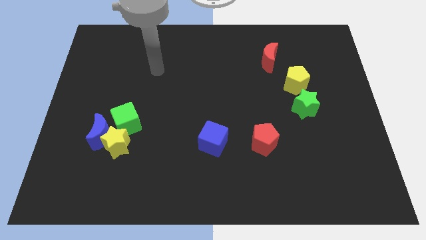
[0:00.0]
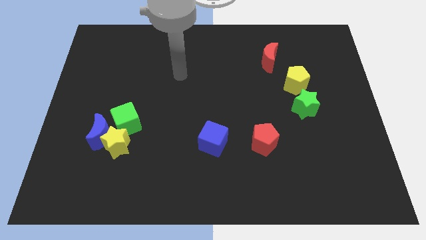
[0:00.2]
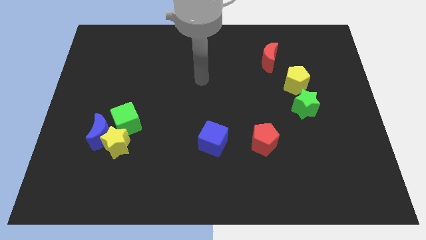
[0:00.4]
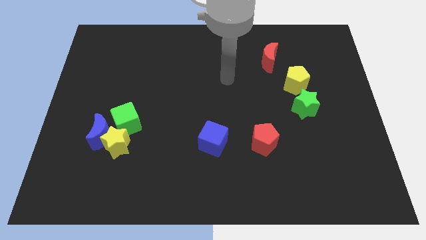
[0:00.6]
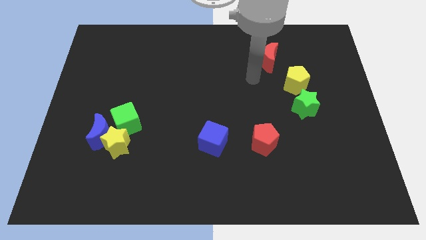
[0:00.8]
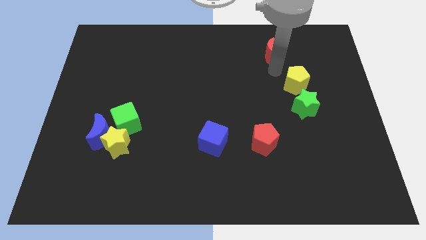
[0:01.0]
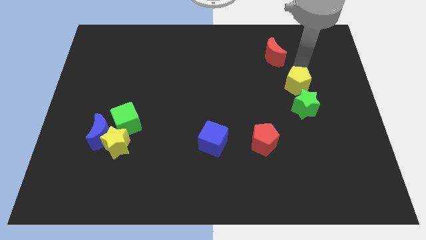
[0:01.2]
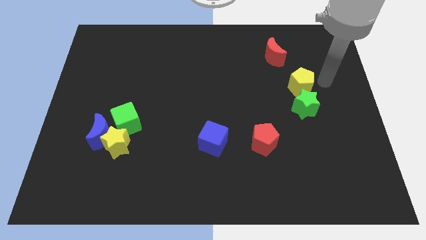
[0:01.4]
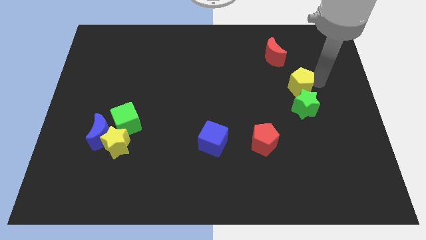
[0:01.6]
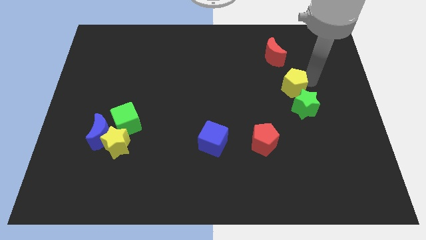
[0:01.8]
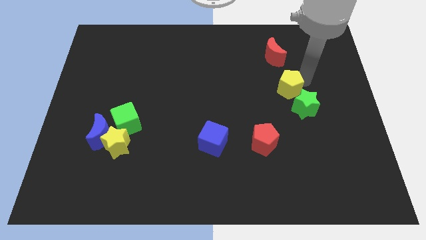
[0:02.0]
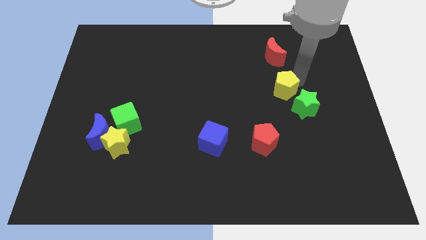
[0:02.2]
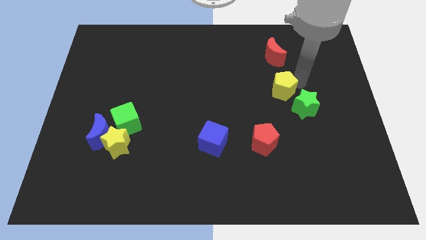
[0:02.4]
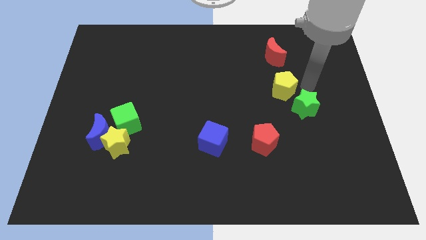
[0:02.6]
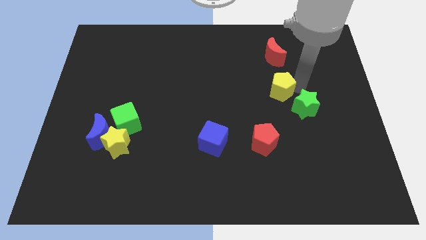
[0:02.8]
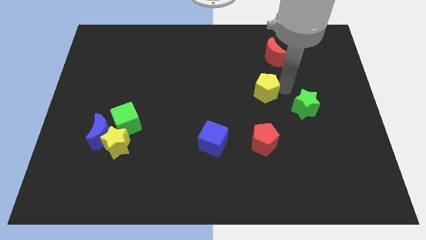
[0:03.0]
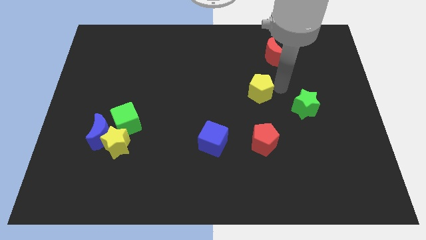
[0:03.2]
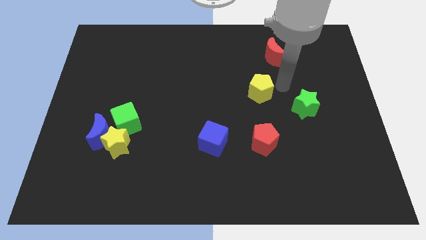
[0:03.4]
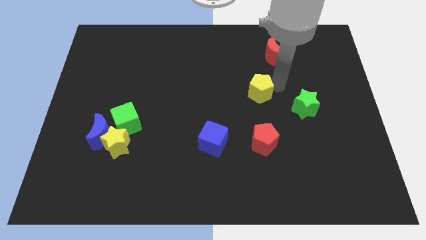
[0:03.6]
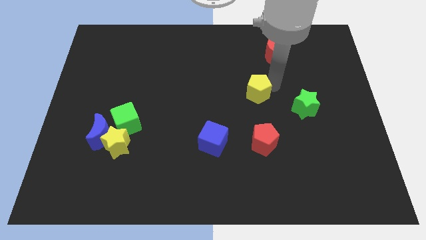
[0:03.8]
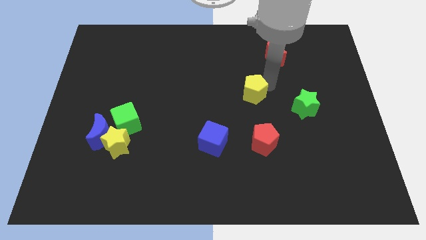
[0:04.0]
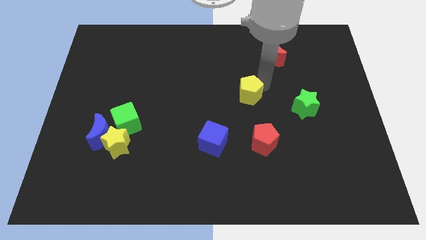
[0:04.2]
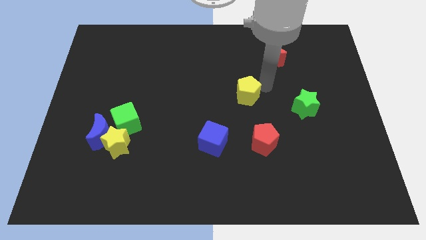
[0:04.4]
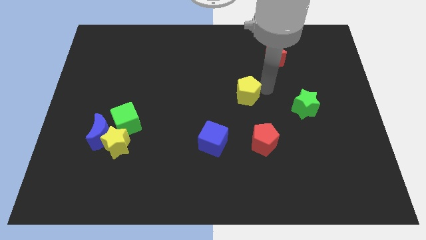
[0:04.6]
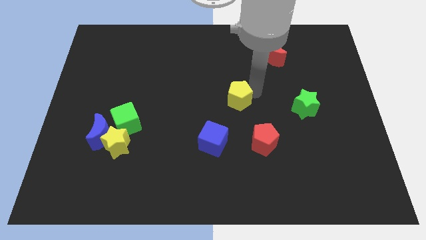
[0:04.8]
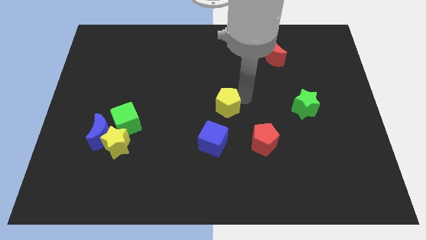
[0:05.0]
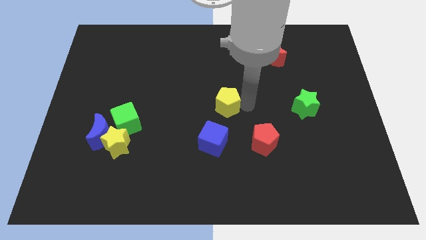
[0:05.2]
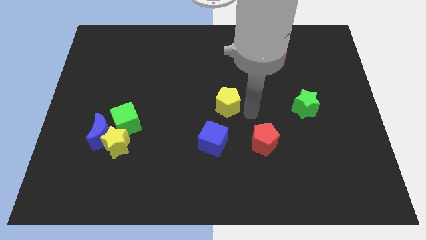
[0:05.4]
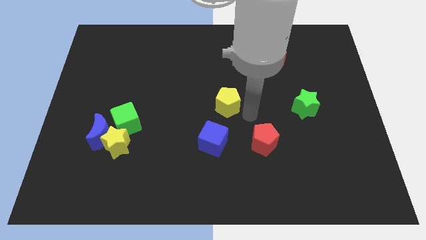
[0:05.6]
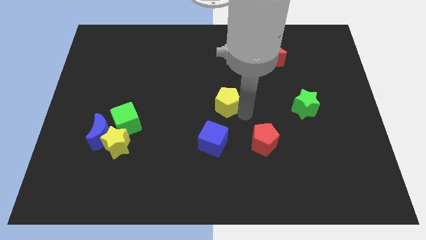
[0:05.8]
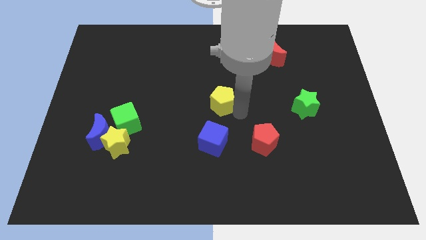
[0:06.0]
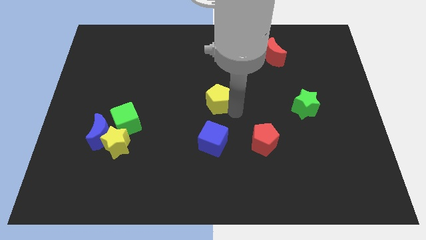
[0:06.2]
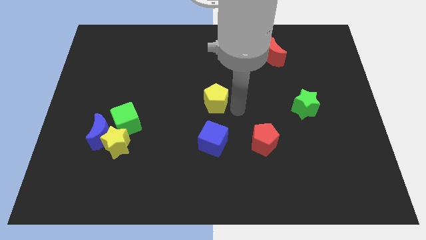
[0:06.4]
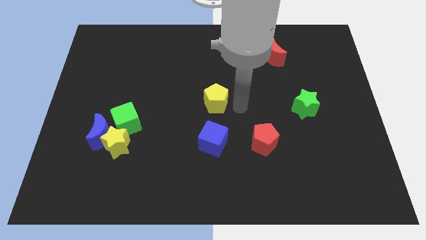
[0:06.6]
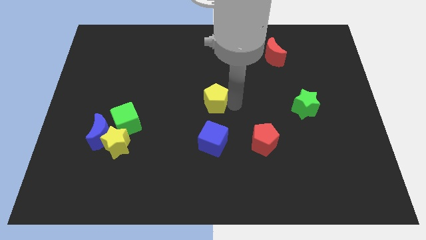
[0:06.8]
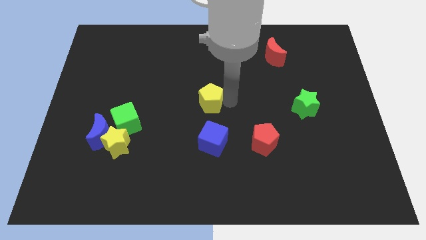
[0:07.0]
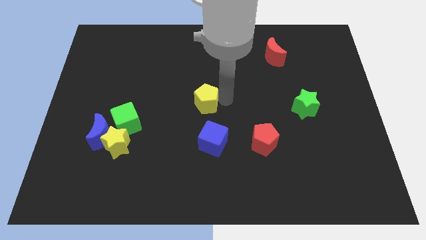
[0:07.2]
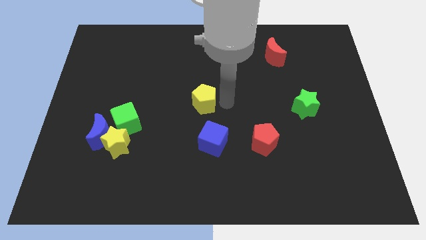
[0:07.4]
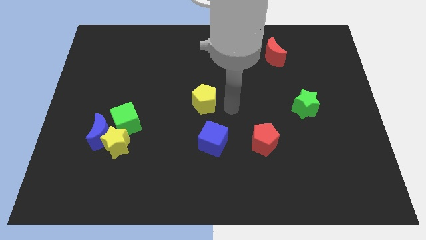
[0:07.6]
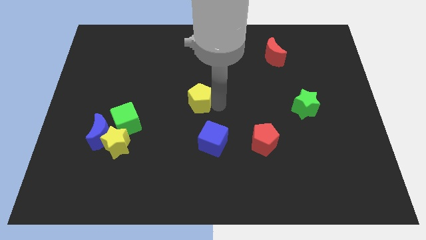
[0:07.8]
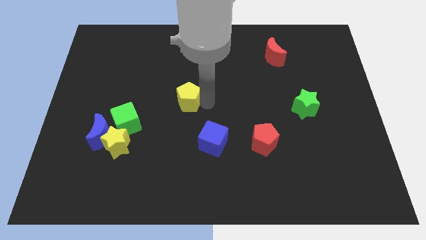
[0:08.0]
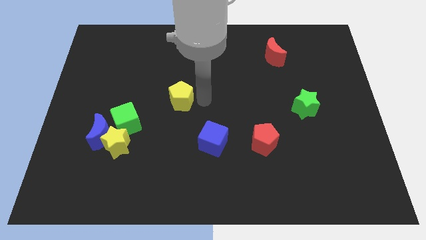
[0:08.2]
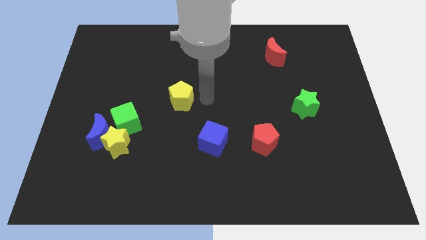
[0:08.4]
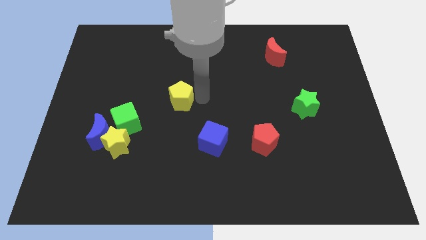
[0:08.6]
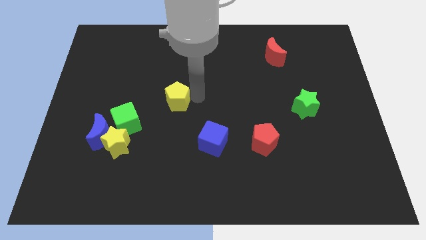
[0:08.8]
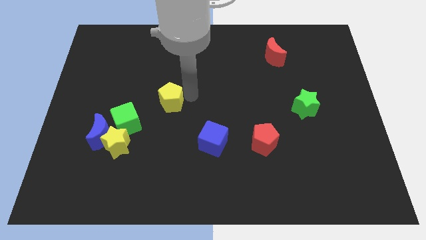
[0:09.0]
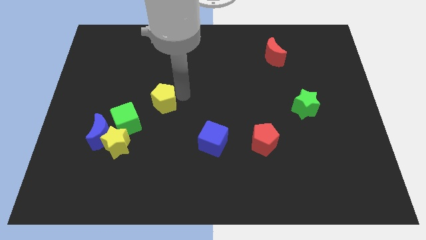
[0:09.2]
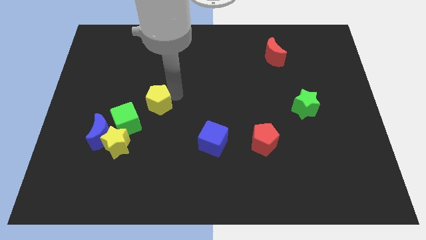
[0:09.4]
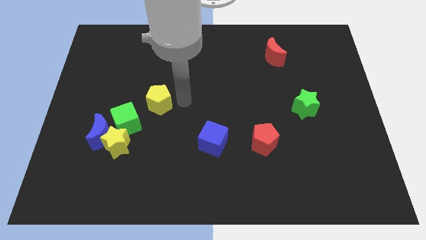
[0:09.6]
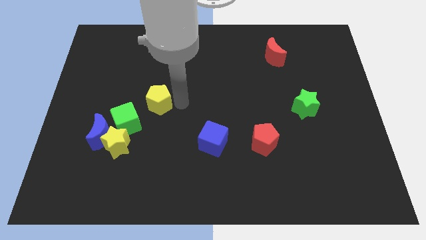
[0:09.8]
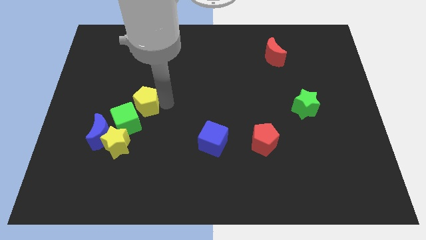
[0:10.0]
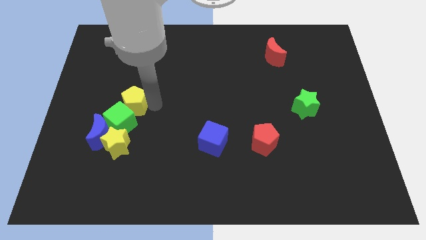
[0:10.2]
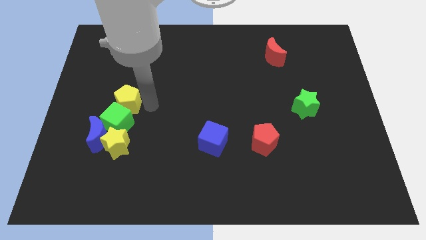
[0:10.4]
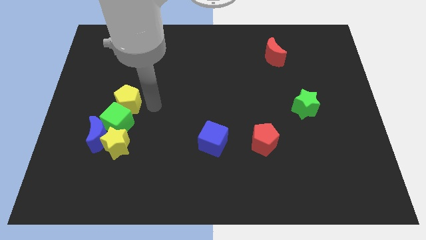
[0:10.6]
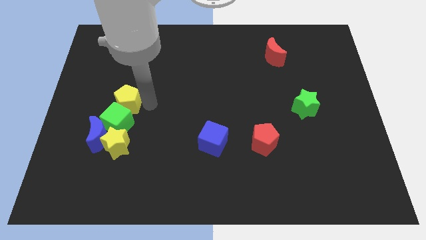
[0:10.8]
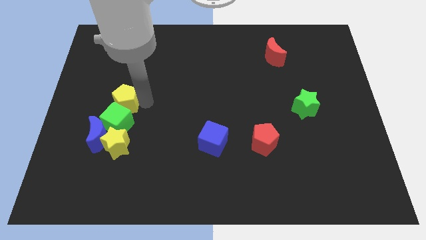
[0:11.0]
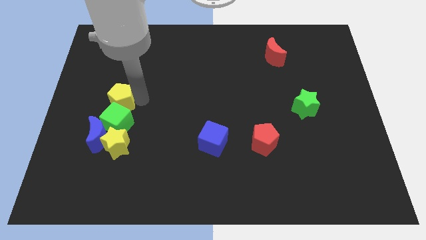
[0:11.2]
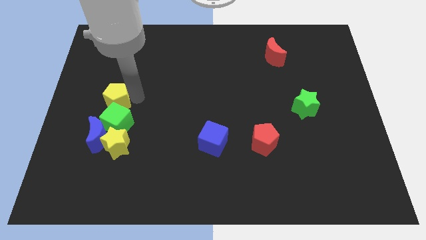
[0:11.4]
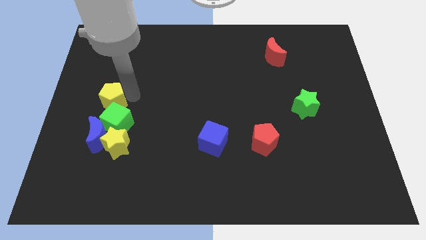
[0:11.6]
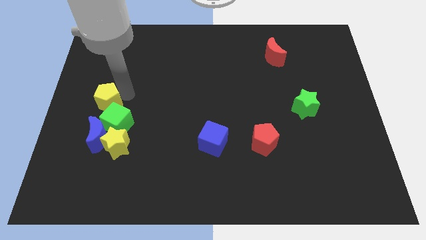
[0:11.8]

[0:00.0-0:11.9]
move the yellow pentagon to the left side of the board

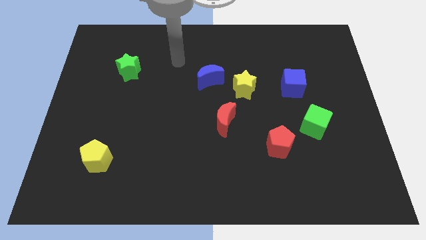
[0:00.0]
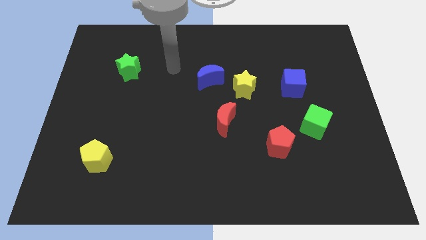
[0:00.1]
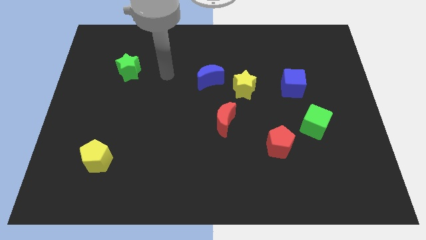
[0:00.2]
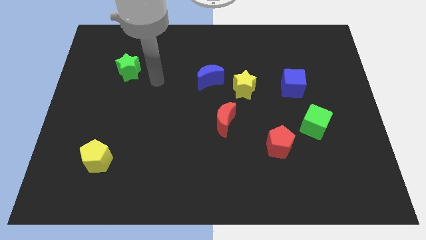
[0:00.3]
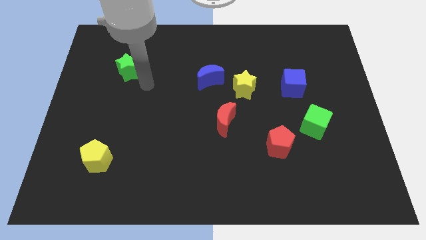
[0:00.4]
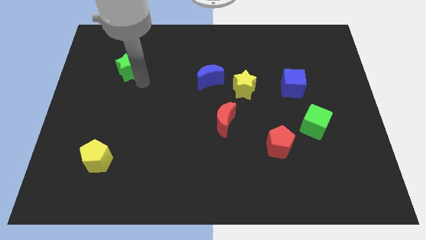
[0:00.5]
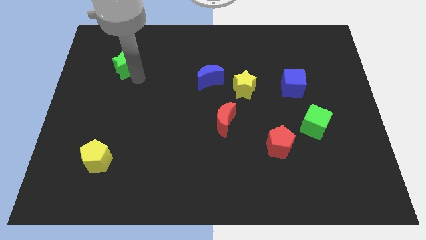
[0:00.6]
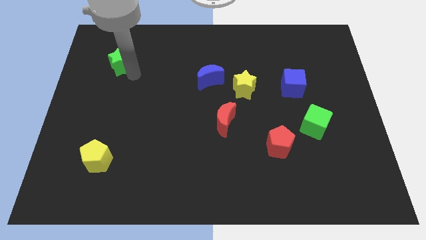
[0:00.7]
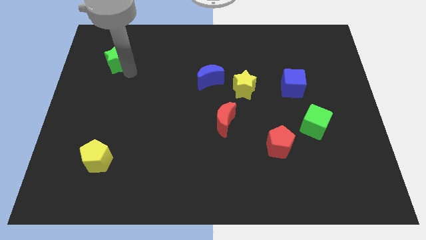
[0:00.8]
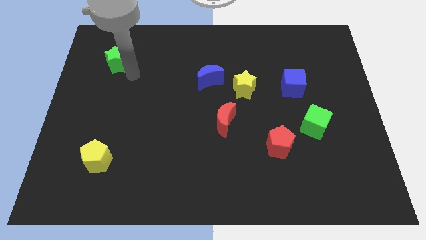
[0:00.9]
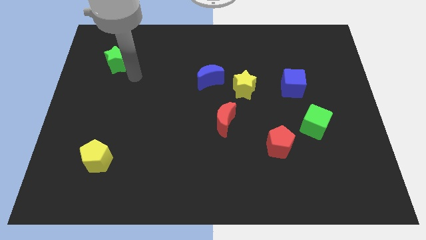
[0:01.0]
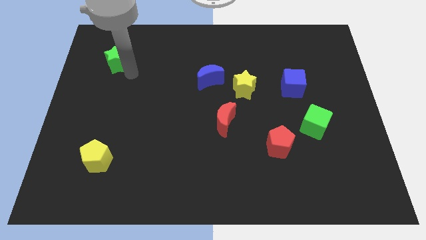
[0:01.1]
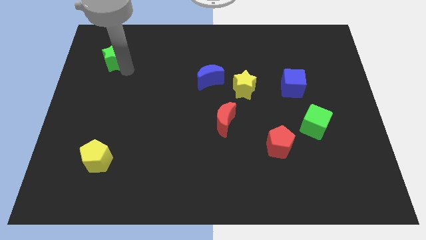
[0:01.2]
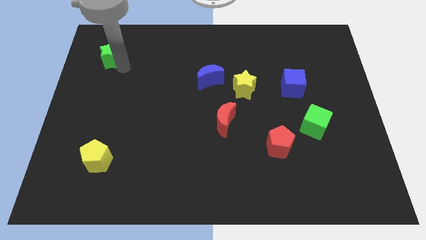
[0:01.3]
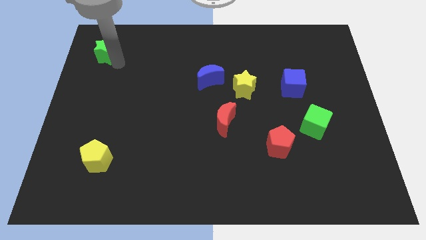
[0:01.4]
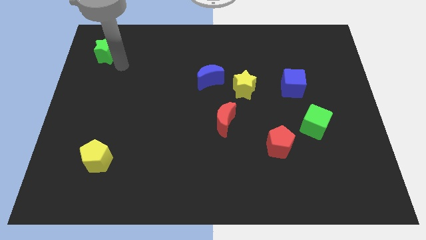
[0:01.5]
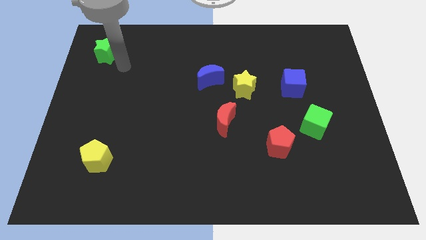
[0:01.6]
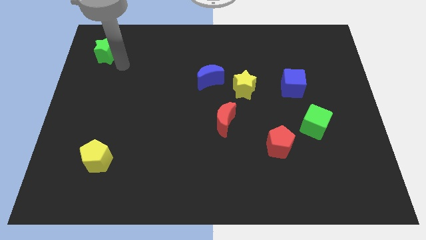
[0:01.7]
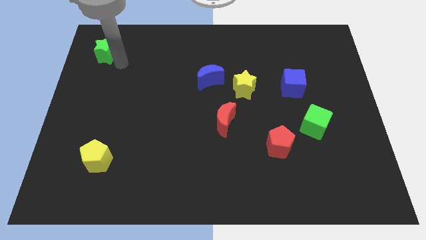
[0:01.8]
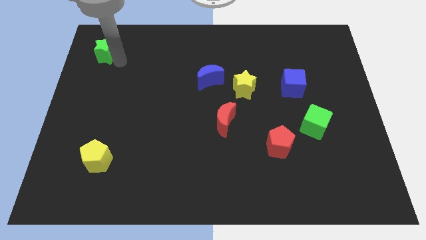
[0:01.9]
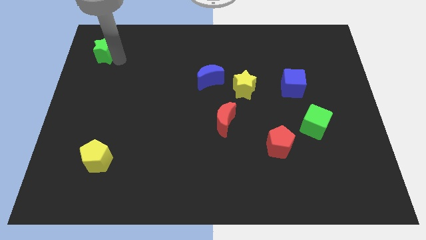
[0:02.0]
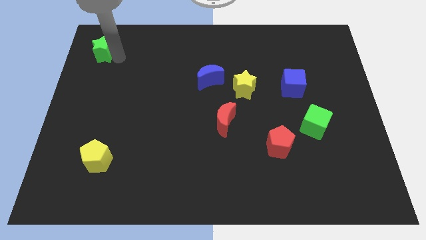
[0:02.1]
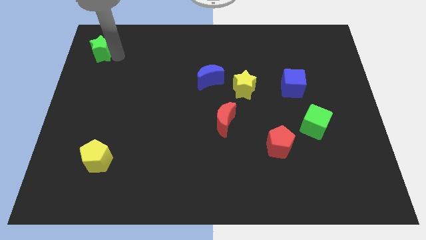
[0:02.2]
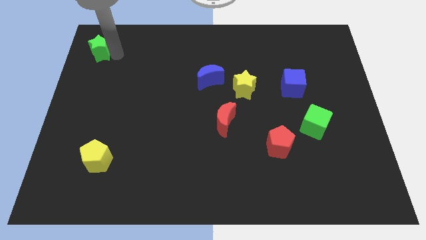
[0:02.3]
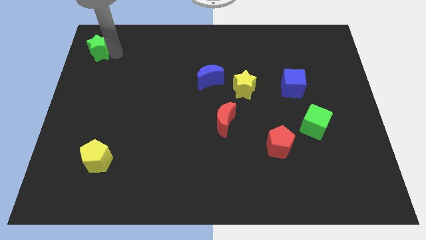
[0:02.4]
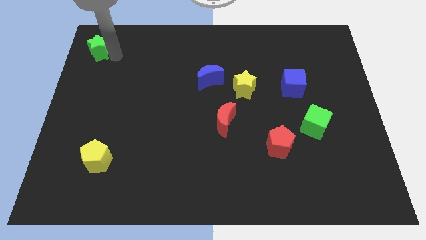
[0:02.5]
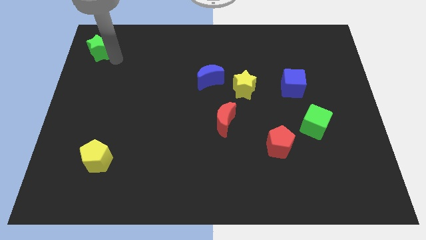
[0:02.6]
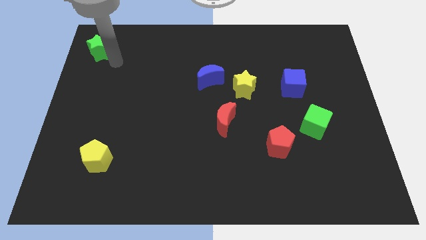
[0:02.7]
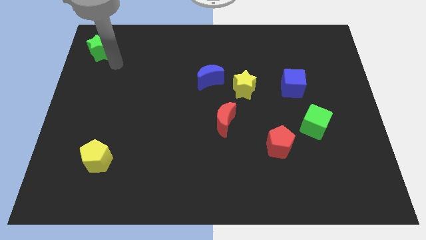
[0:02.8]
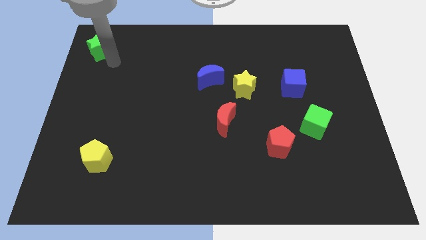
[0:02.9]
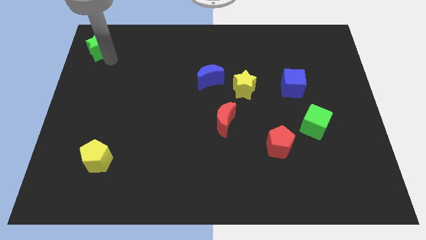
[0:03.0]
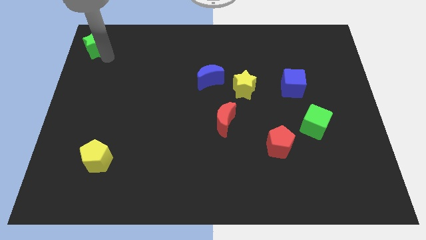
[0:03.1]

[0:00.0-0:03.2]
move the green star to the upper left corner
